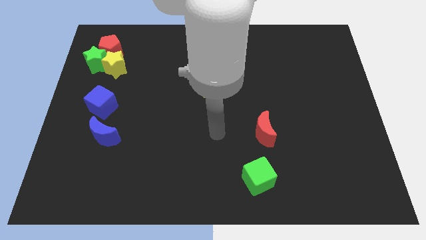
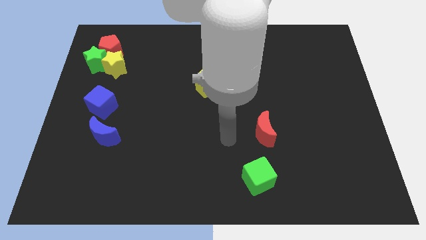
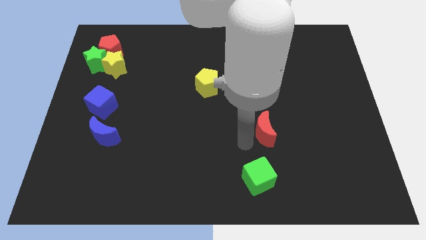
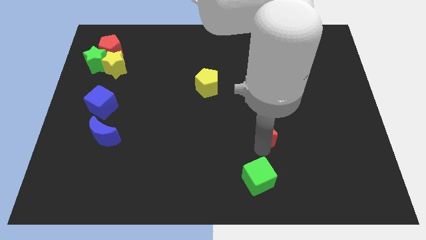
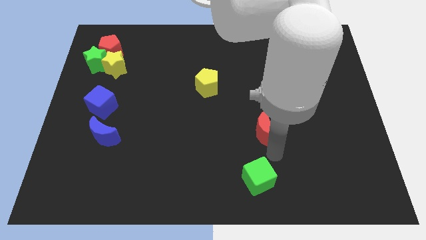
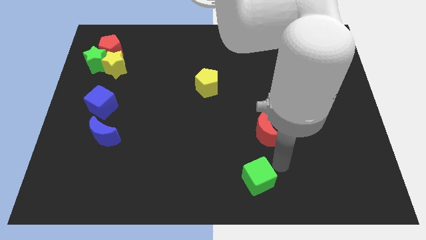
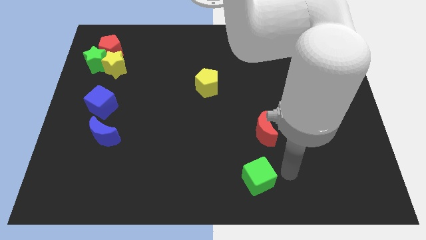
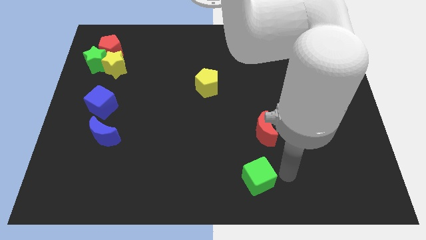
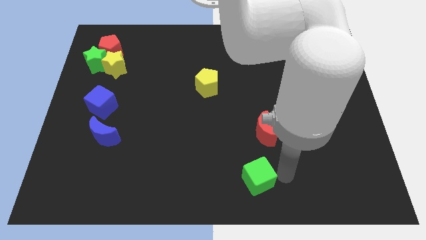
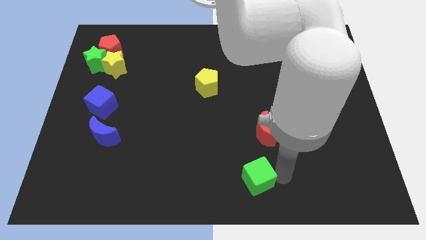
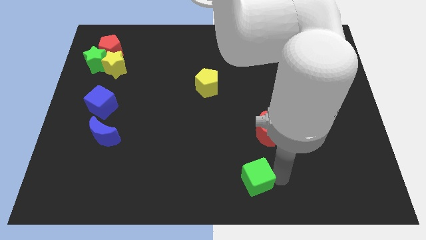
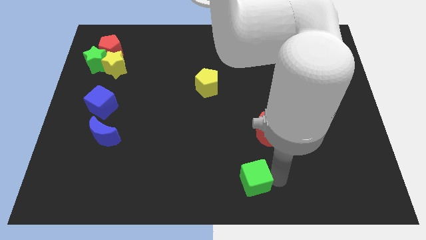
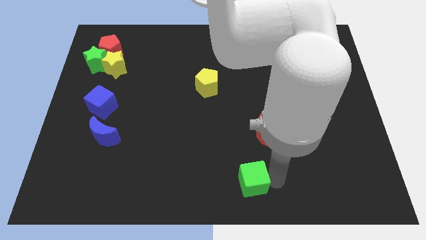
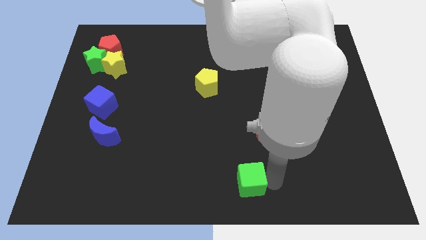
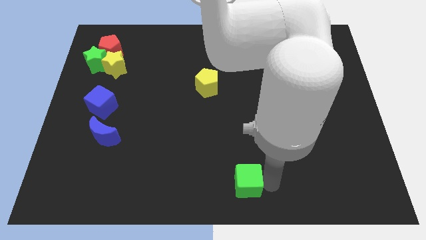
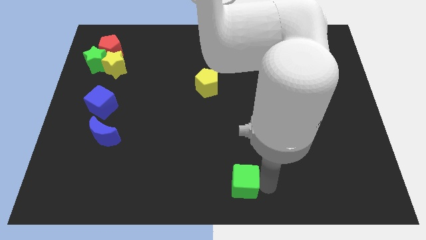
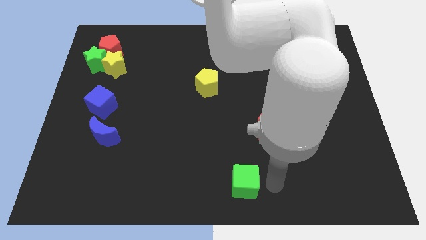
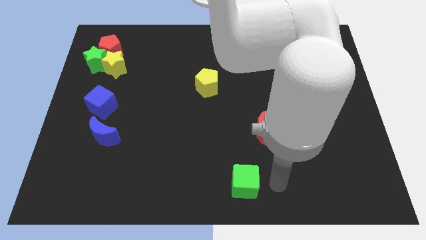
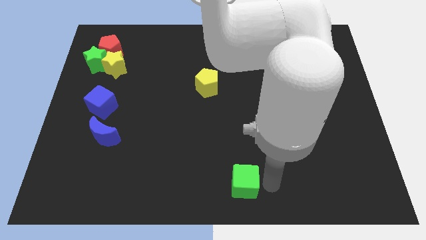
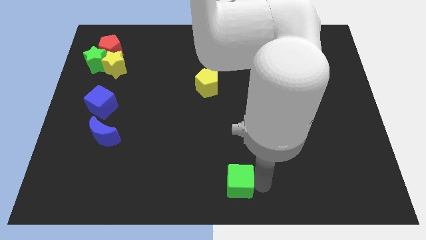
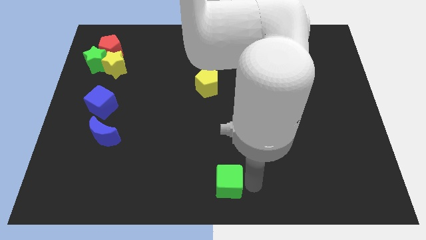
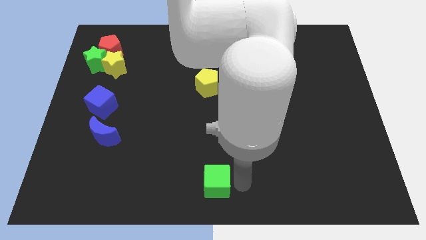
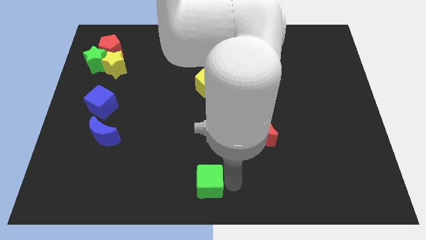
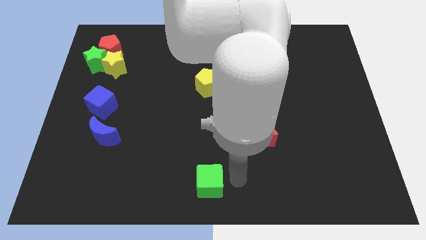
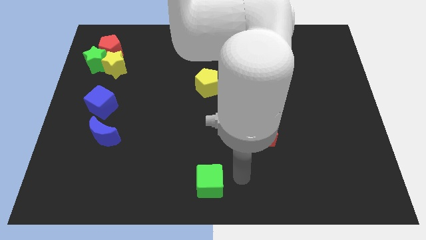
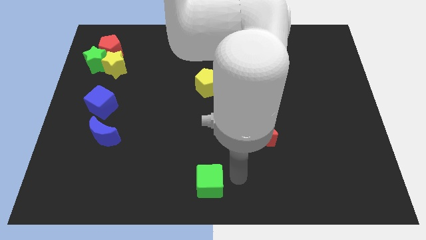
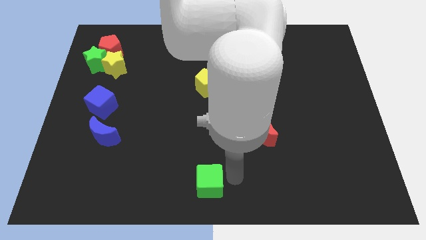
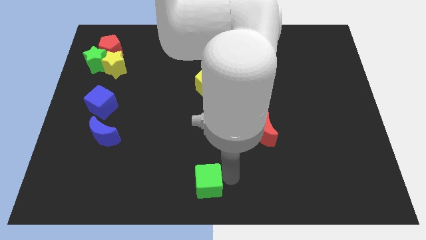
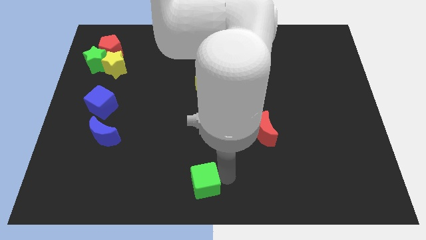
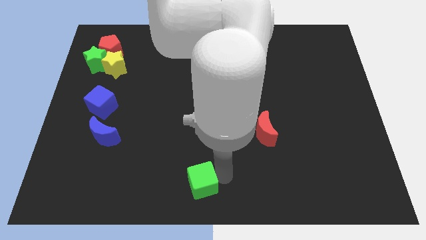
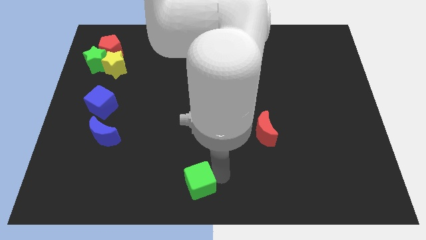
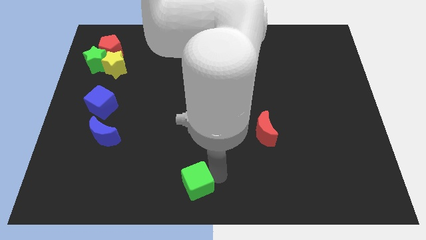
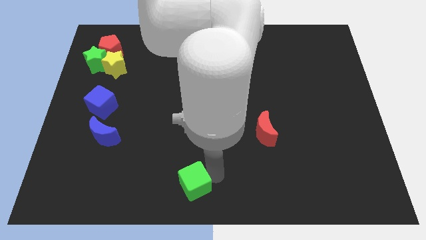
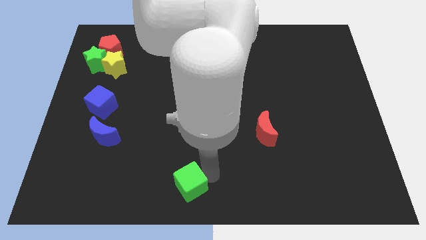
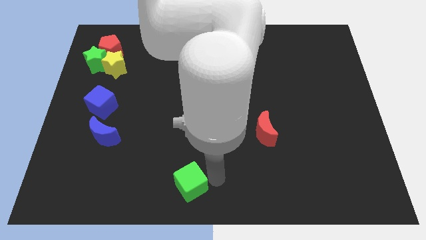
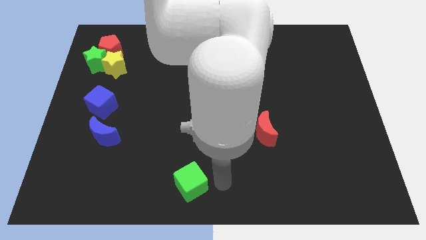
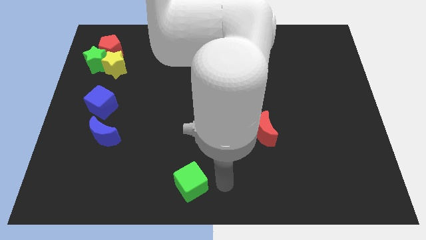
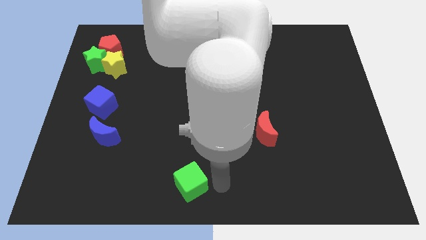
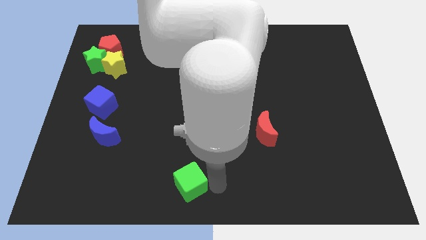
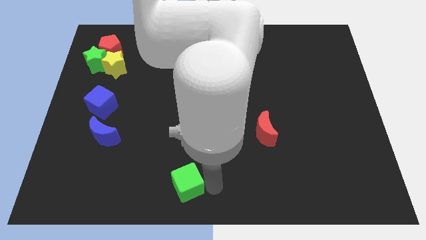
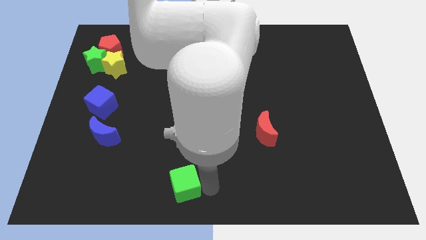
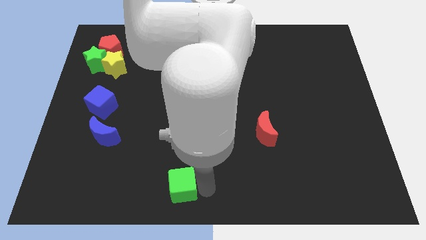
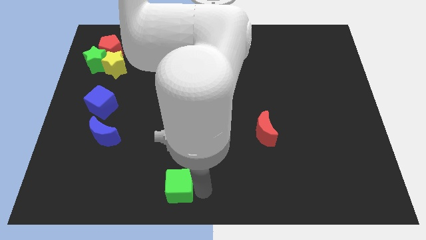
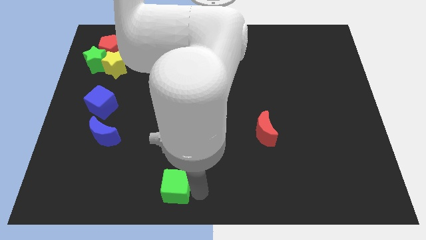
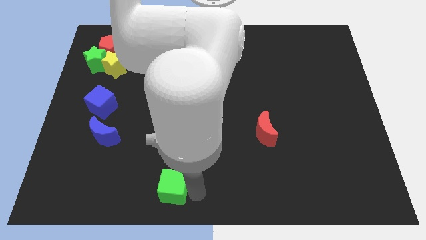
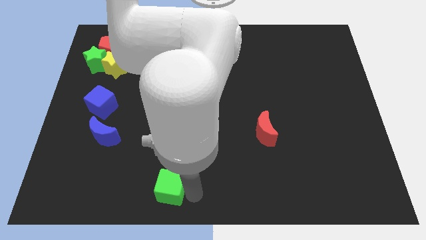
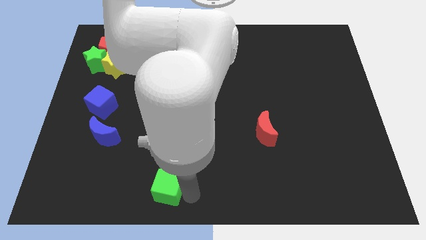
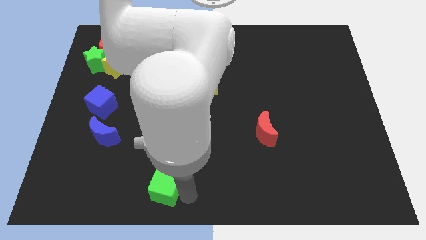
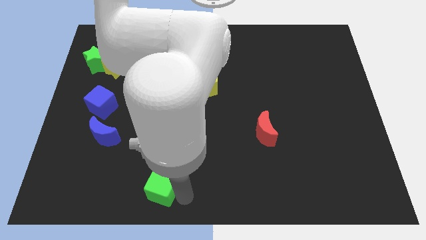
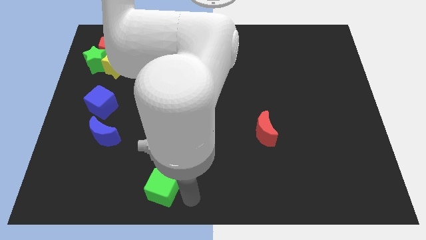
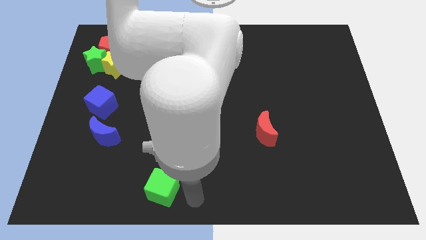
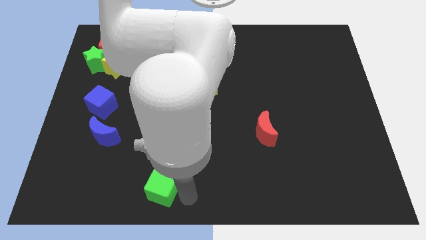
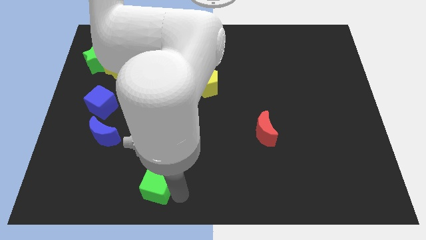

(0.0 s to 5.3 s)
move the green cube left

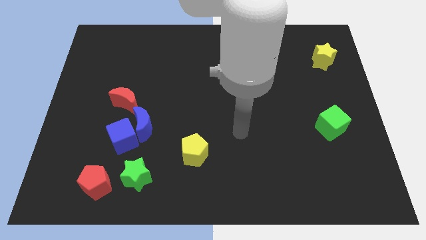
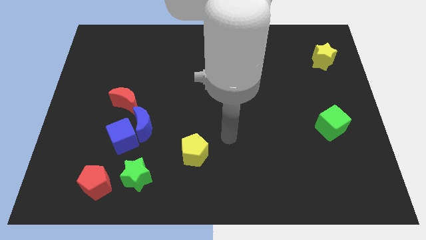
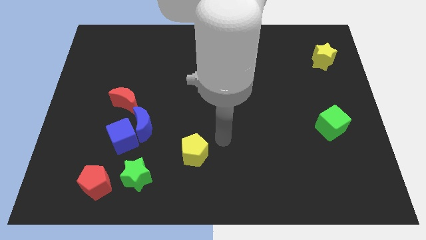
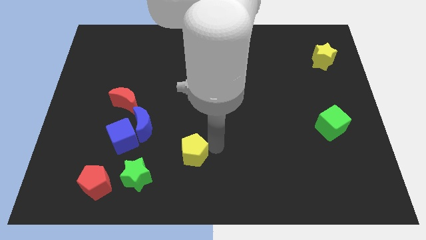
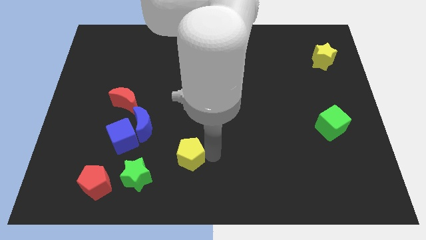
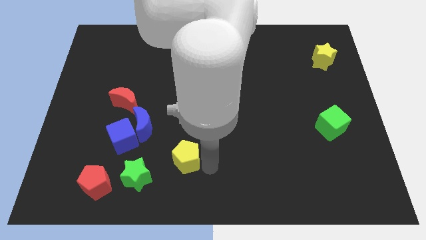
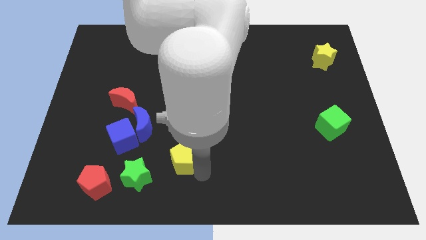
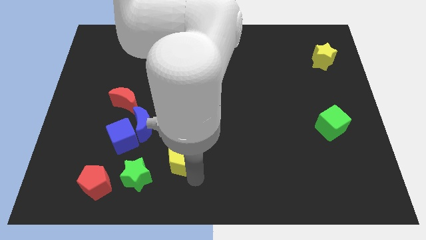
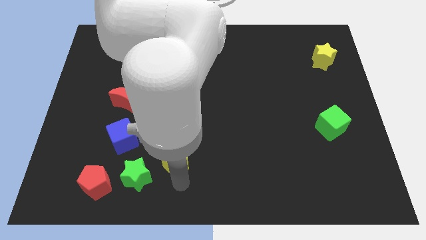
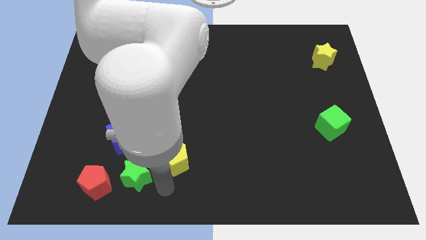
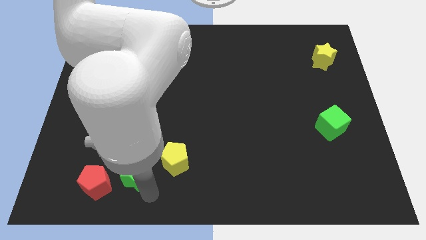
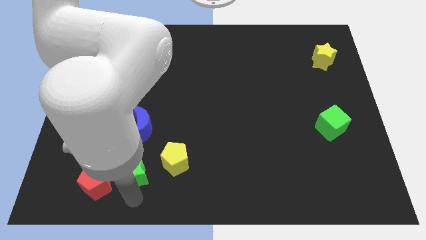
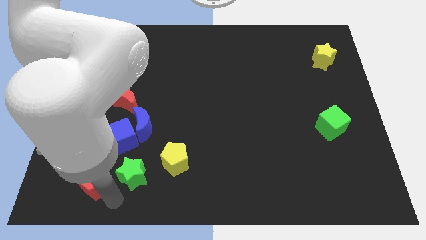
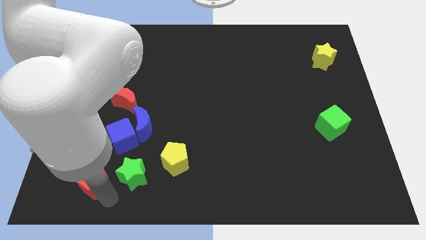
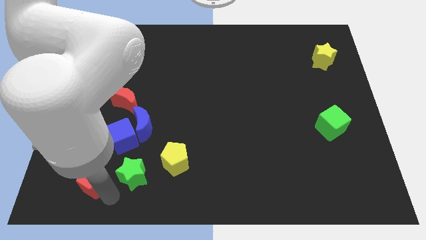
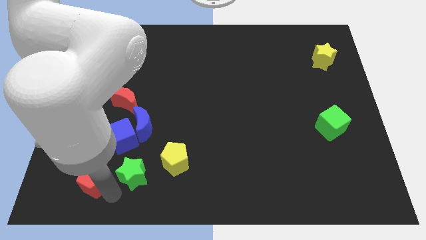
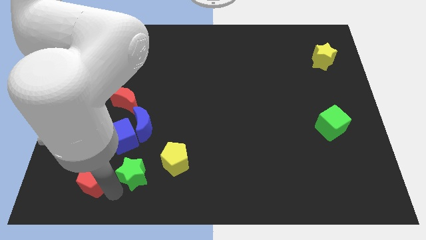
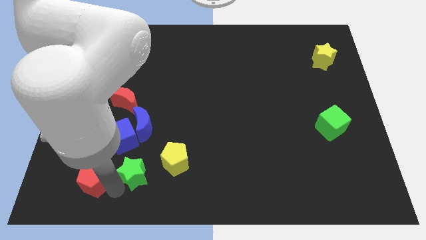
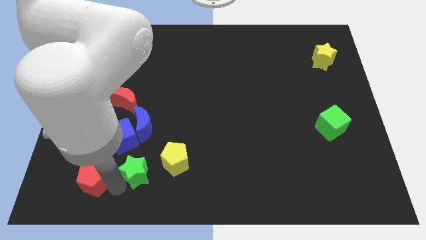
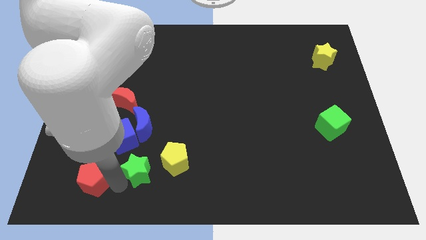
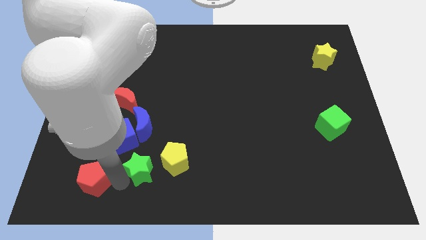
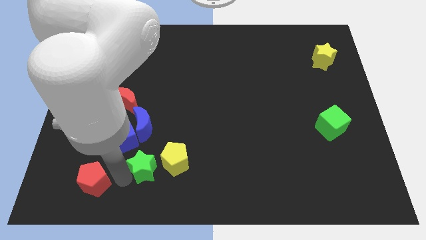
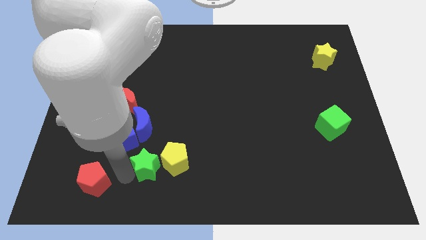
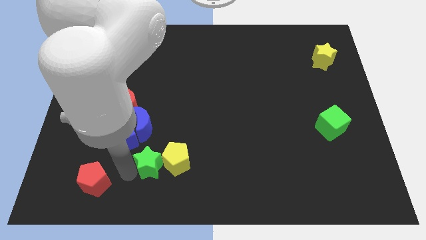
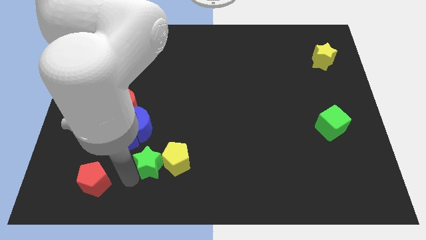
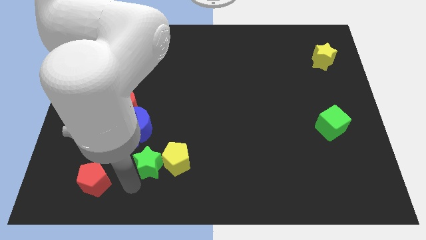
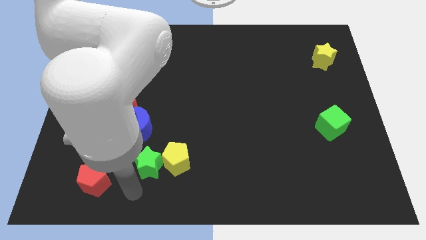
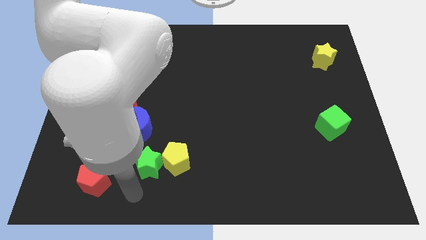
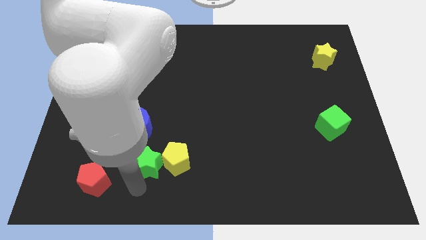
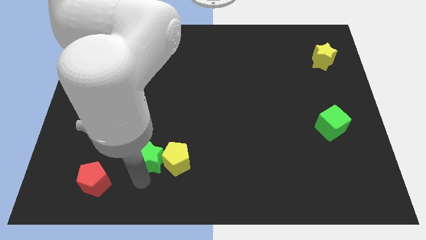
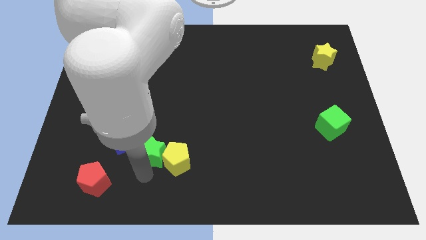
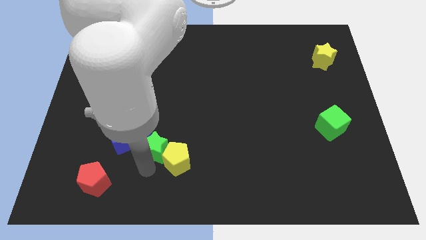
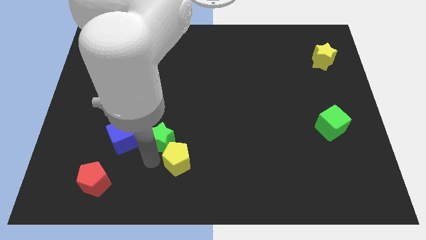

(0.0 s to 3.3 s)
slide the green star a little bit upwards

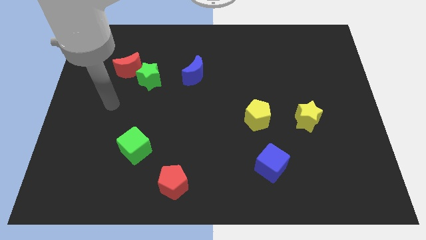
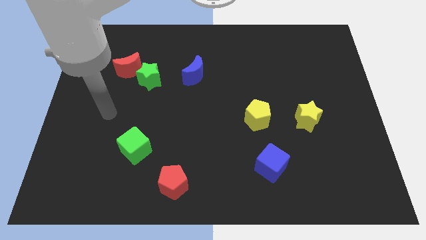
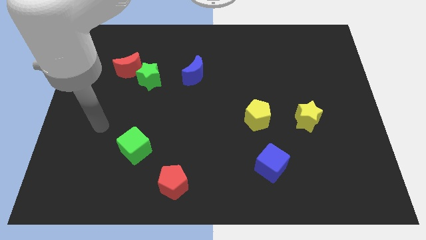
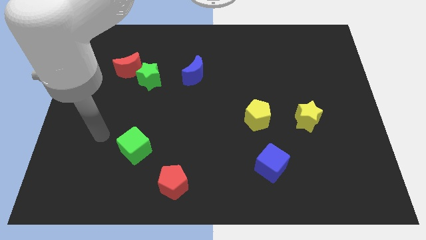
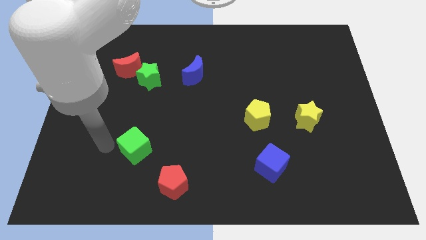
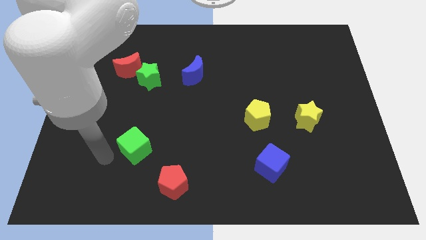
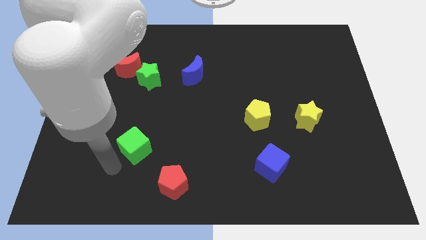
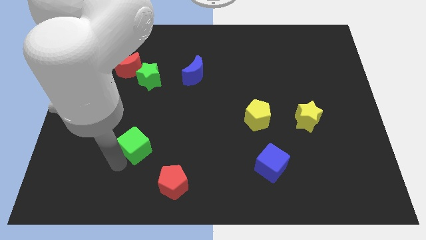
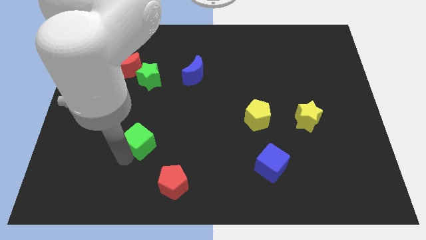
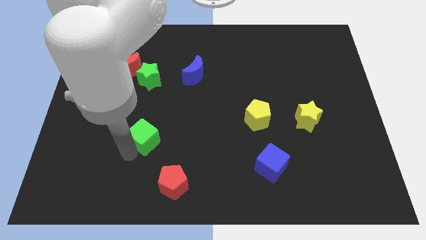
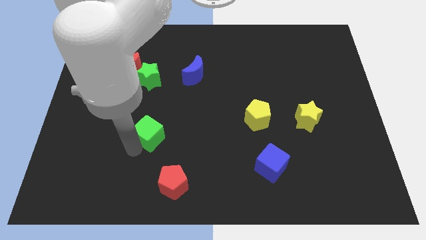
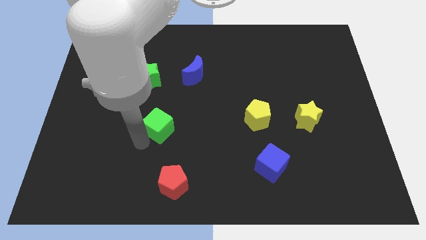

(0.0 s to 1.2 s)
slightly slide the green cube up and then to the right
